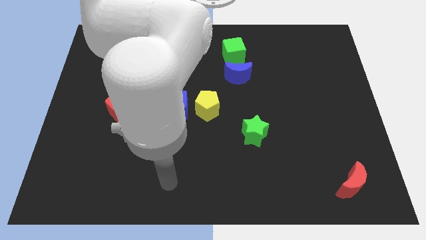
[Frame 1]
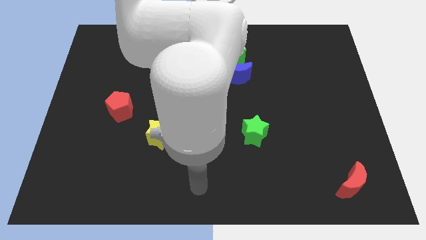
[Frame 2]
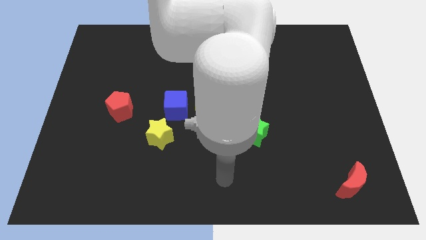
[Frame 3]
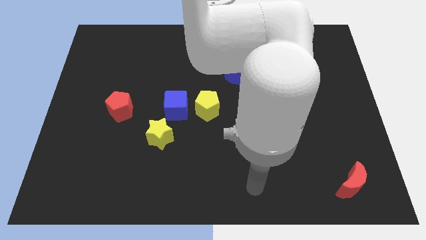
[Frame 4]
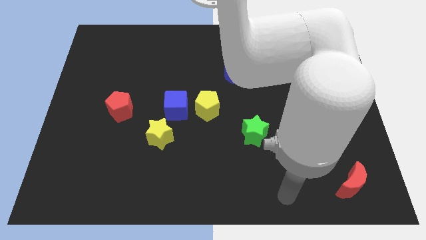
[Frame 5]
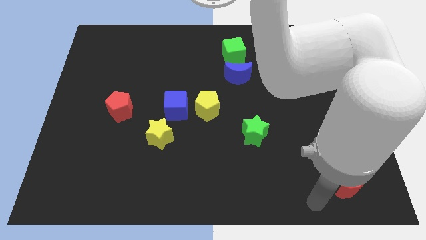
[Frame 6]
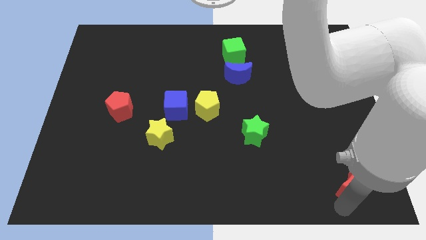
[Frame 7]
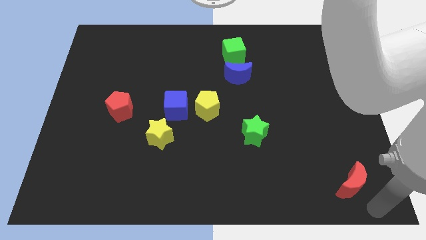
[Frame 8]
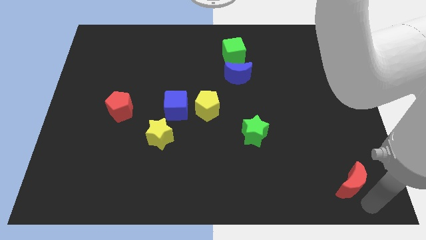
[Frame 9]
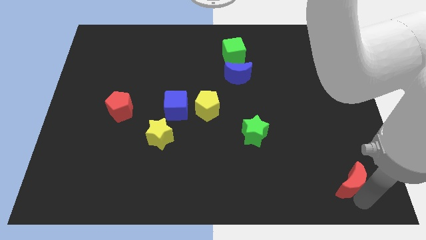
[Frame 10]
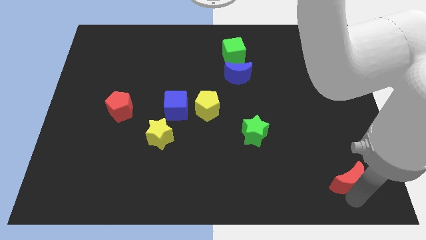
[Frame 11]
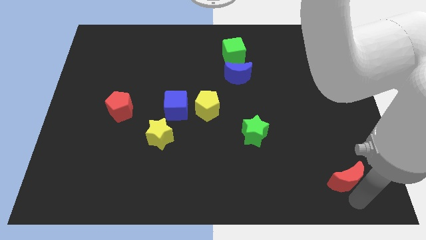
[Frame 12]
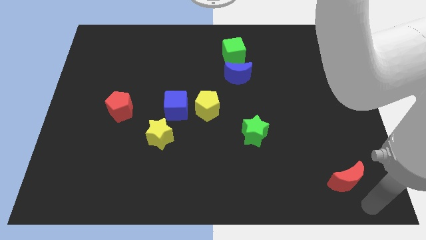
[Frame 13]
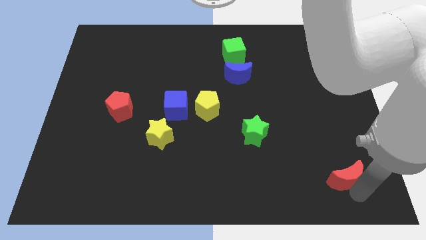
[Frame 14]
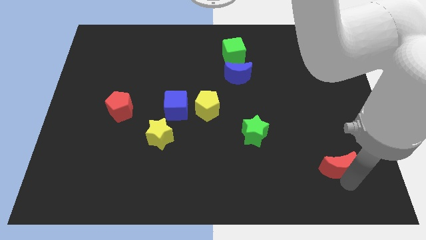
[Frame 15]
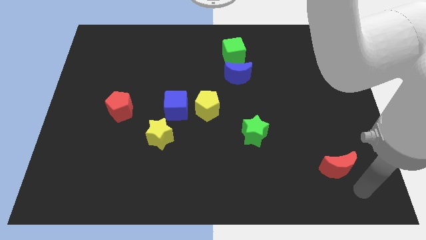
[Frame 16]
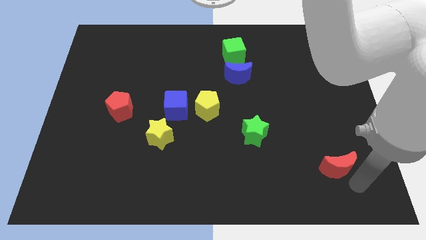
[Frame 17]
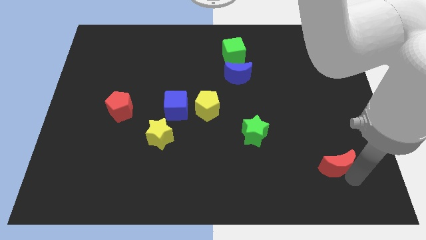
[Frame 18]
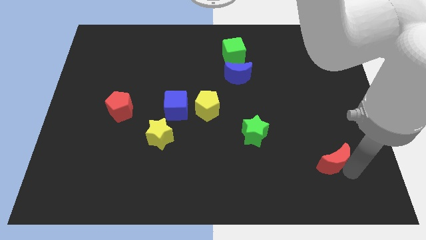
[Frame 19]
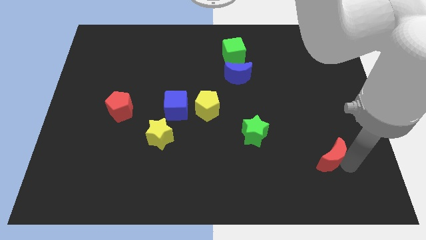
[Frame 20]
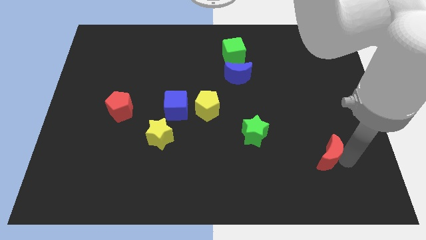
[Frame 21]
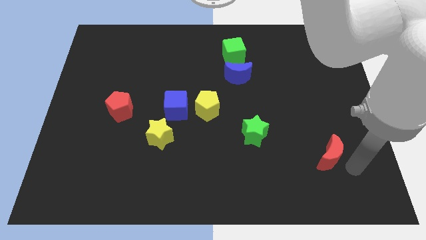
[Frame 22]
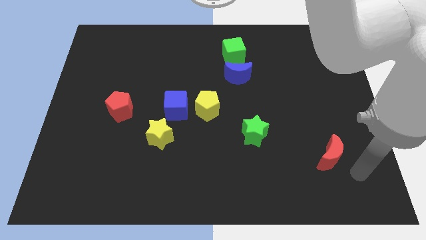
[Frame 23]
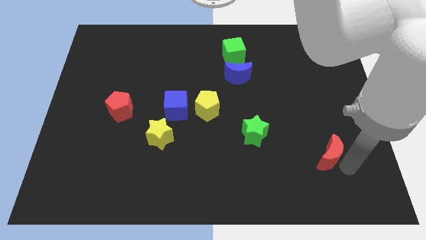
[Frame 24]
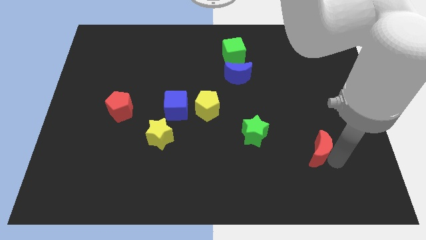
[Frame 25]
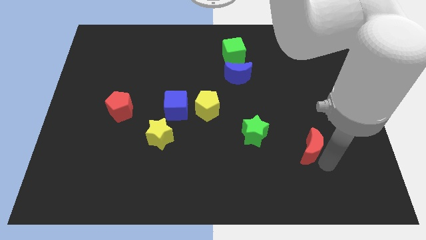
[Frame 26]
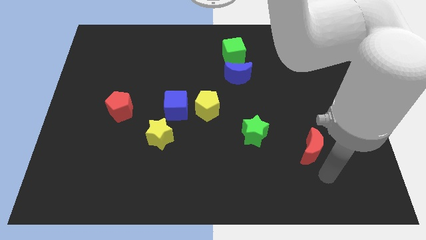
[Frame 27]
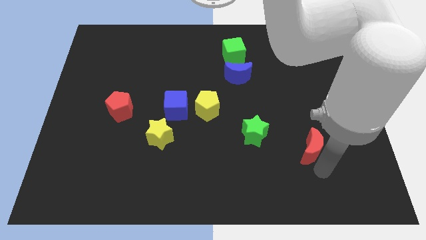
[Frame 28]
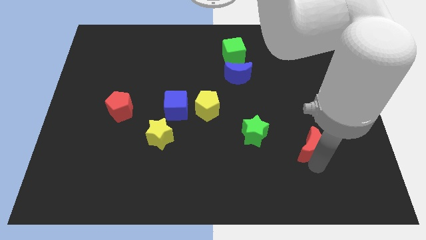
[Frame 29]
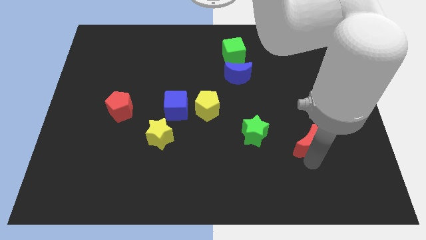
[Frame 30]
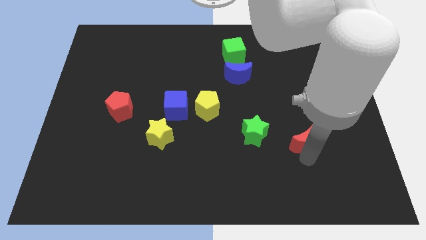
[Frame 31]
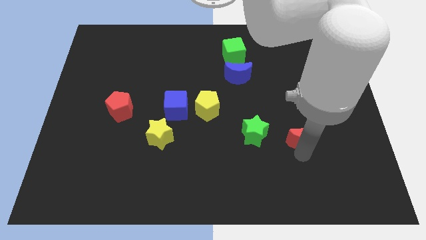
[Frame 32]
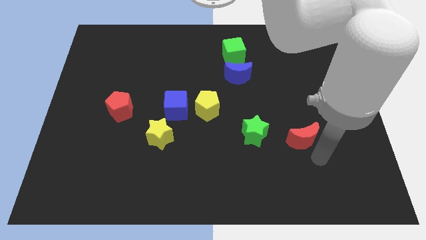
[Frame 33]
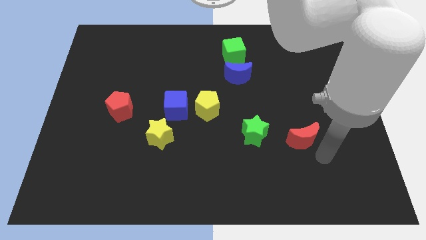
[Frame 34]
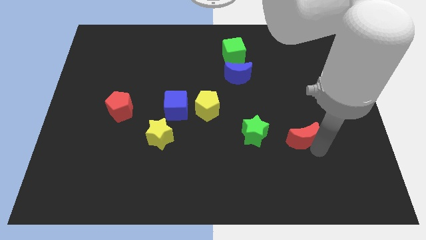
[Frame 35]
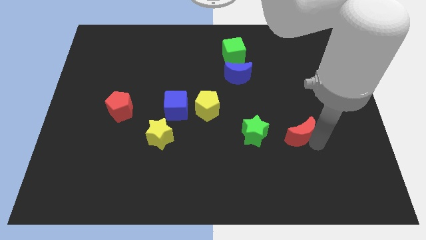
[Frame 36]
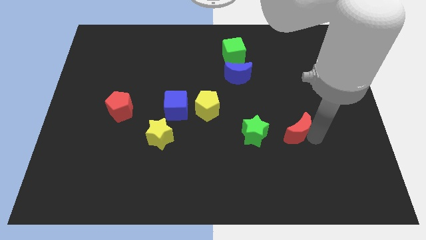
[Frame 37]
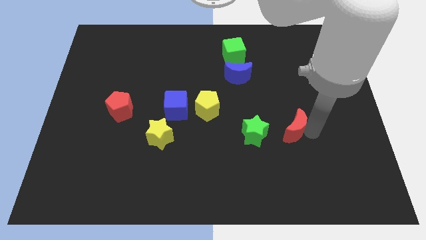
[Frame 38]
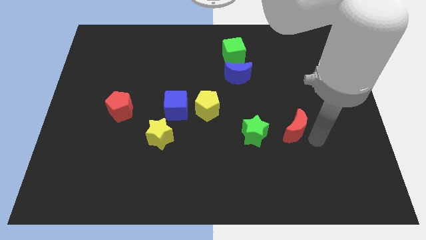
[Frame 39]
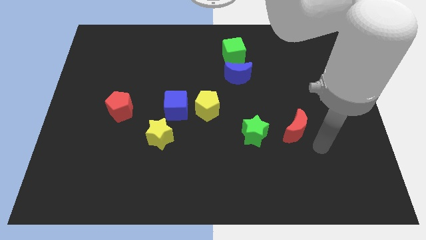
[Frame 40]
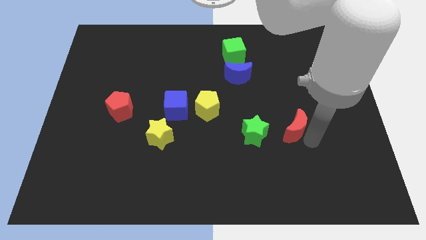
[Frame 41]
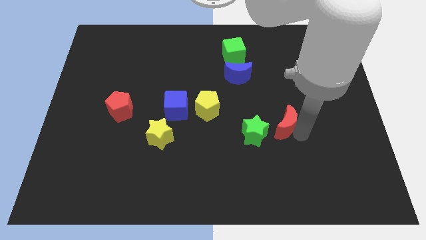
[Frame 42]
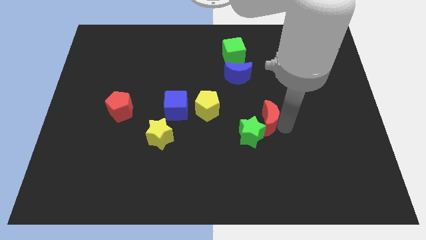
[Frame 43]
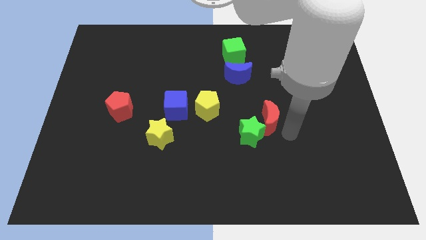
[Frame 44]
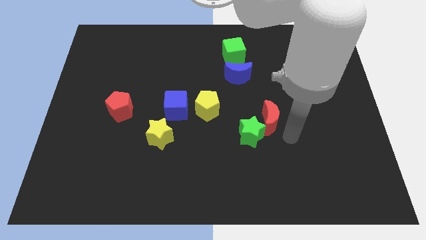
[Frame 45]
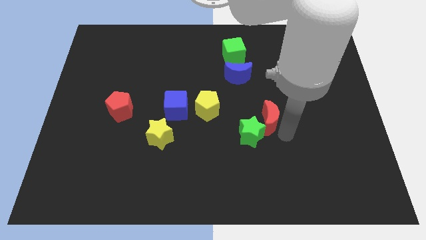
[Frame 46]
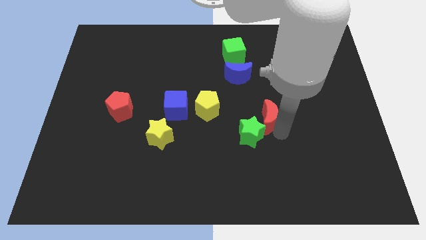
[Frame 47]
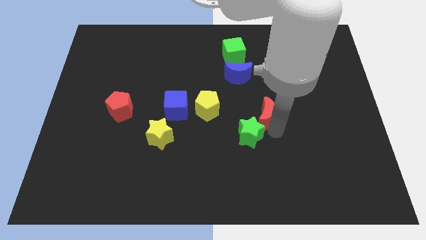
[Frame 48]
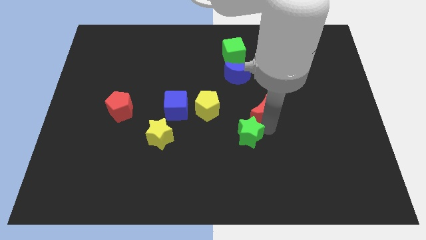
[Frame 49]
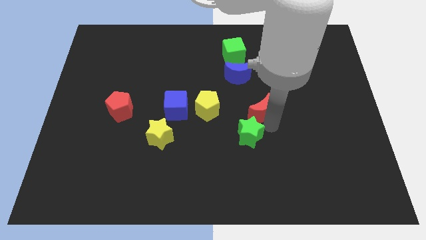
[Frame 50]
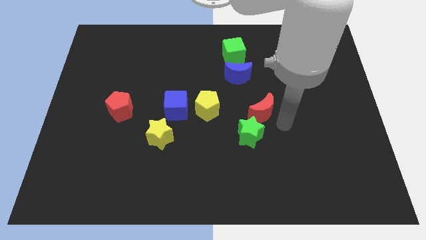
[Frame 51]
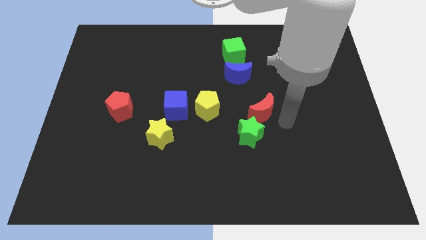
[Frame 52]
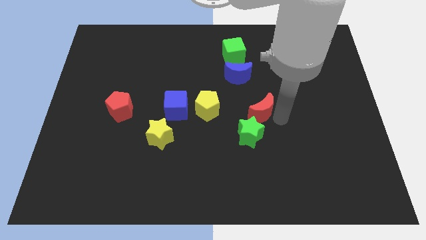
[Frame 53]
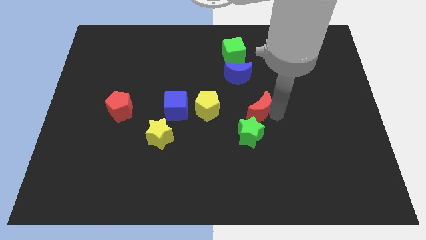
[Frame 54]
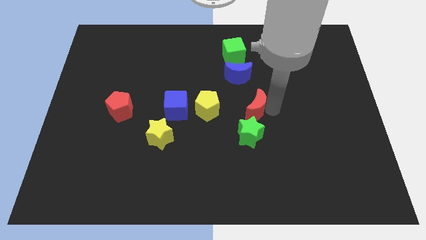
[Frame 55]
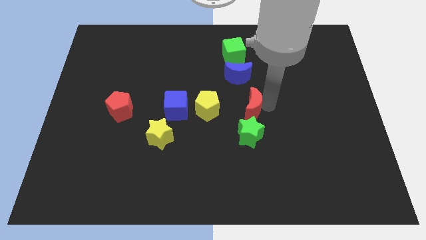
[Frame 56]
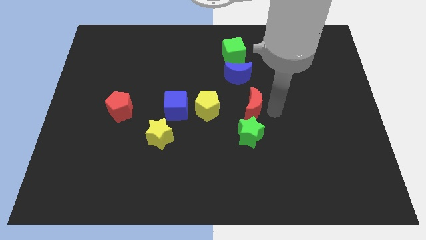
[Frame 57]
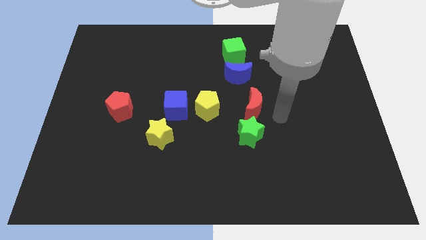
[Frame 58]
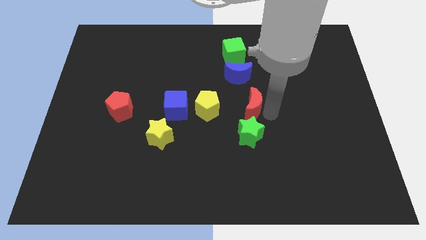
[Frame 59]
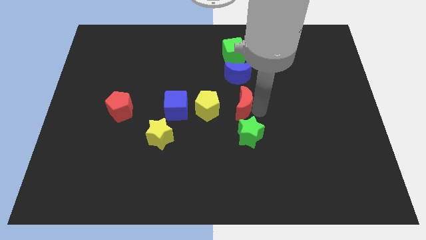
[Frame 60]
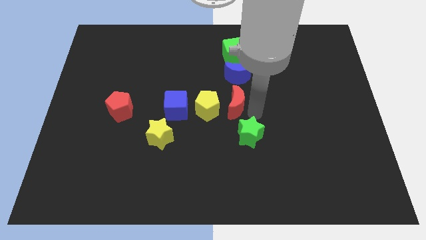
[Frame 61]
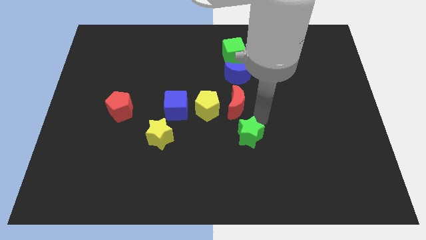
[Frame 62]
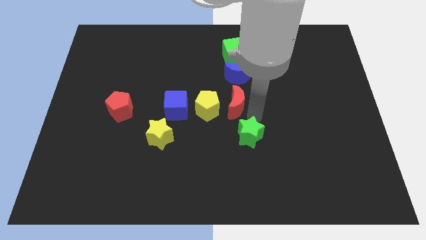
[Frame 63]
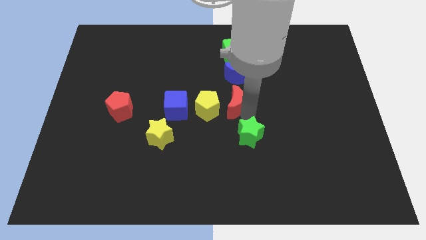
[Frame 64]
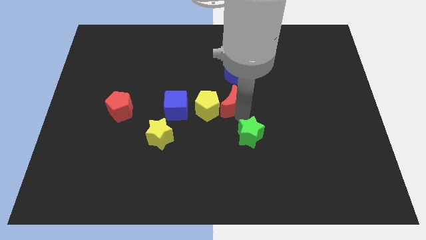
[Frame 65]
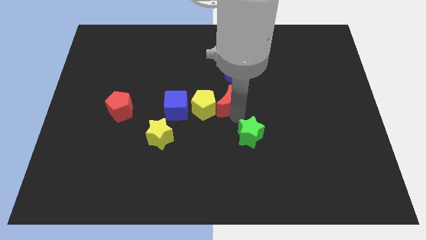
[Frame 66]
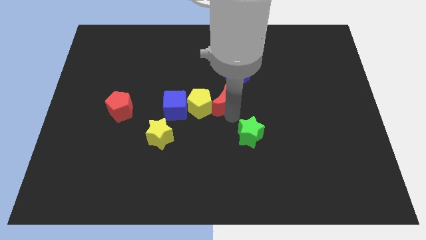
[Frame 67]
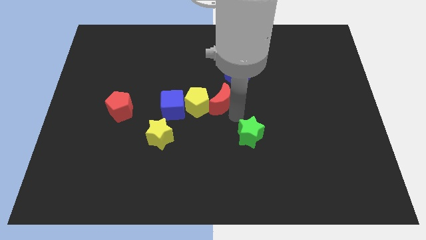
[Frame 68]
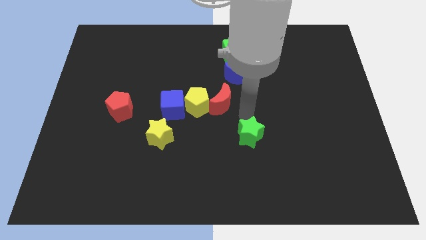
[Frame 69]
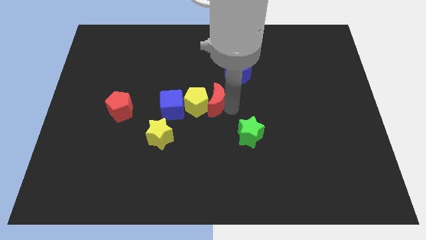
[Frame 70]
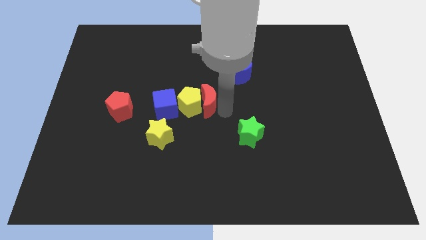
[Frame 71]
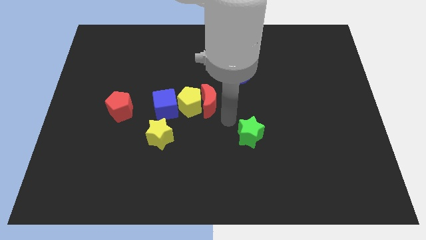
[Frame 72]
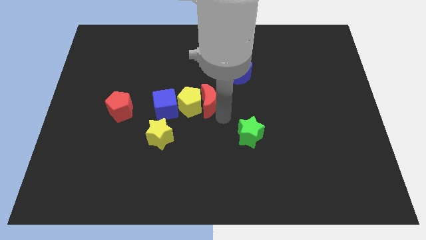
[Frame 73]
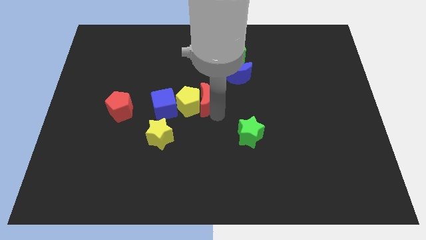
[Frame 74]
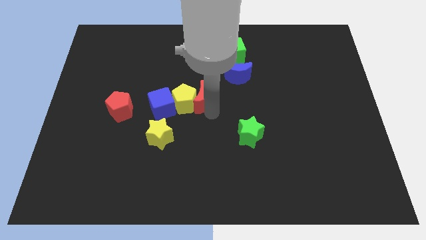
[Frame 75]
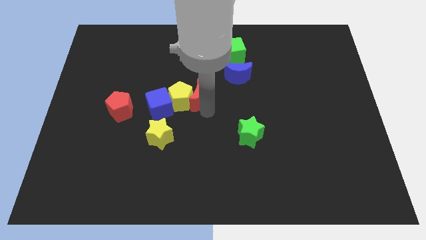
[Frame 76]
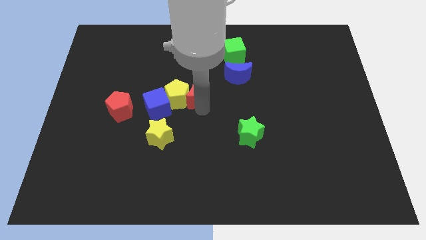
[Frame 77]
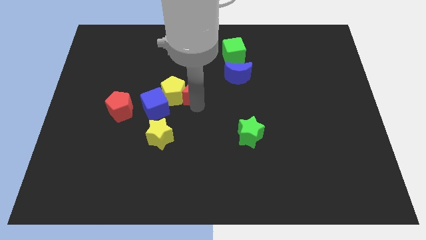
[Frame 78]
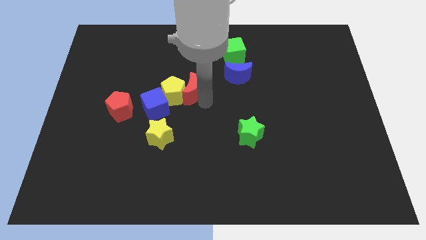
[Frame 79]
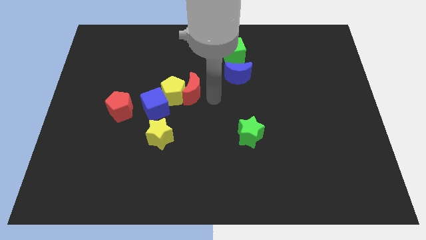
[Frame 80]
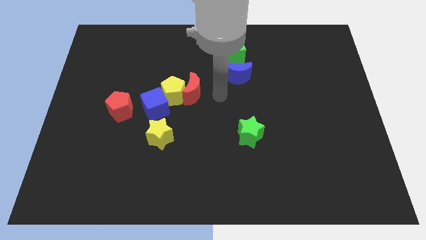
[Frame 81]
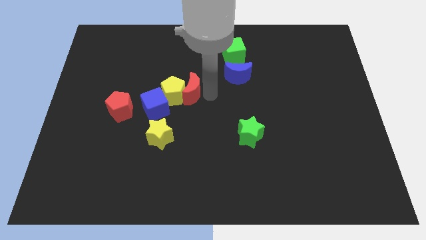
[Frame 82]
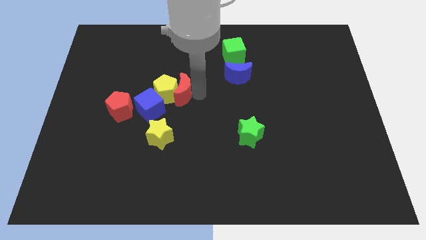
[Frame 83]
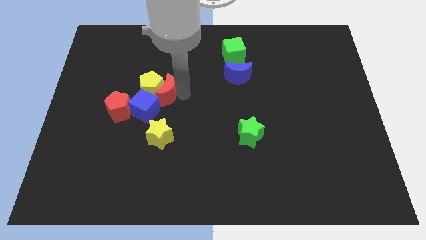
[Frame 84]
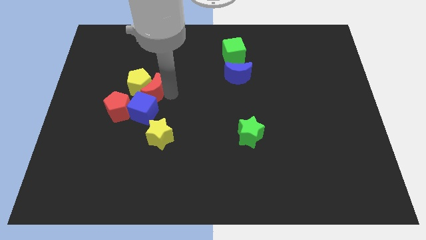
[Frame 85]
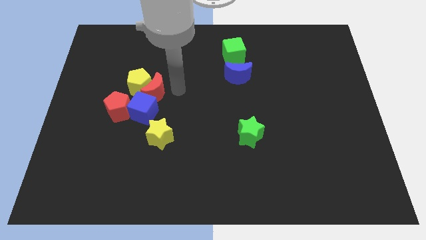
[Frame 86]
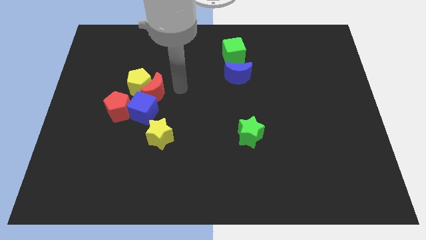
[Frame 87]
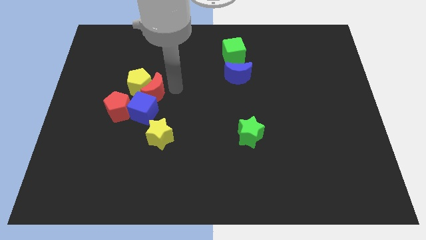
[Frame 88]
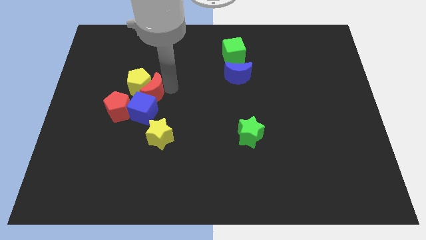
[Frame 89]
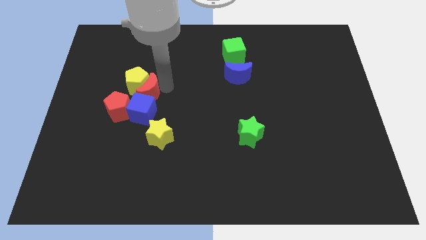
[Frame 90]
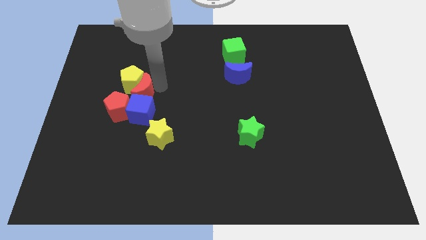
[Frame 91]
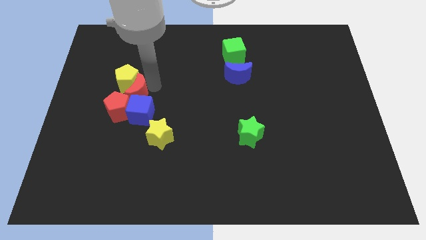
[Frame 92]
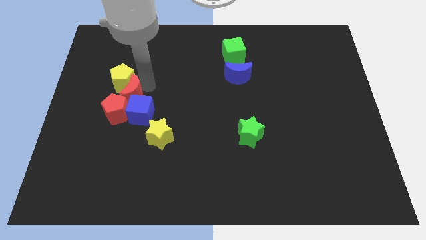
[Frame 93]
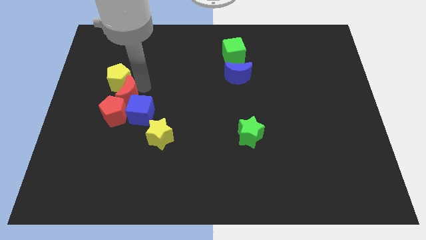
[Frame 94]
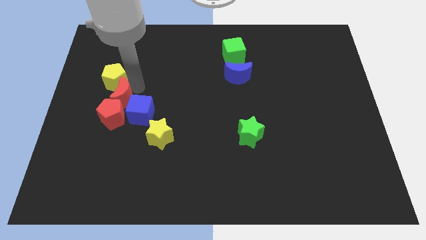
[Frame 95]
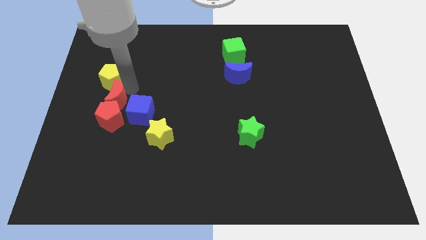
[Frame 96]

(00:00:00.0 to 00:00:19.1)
push the red moon to the top left of the red pentagon
